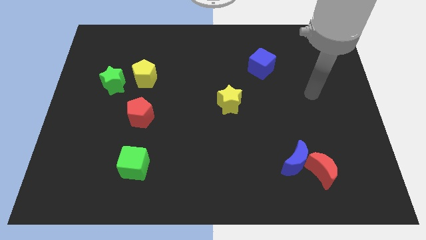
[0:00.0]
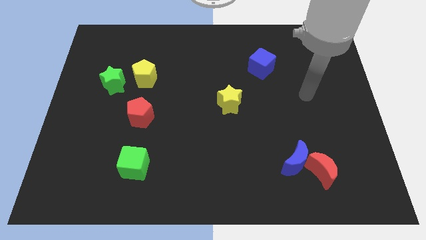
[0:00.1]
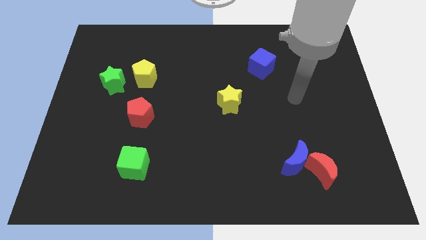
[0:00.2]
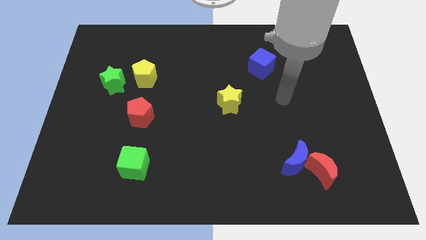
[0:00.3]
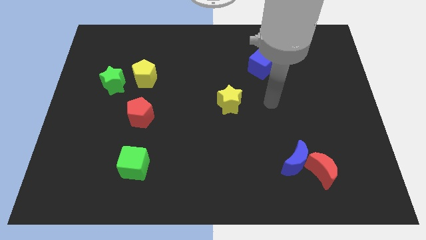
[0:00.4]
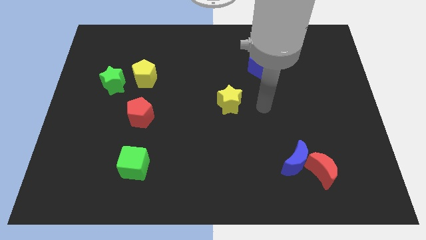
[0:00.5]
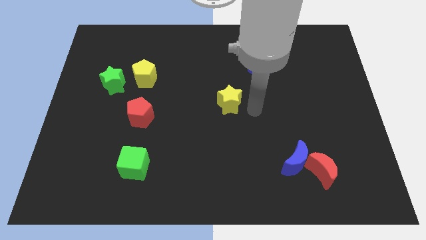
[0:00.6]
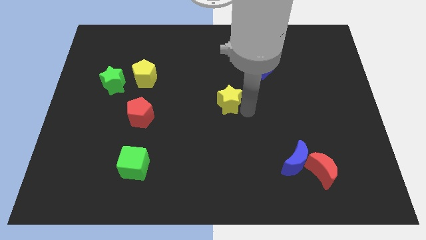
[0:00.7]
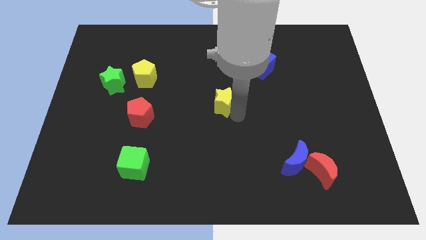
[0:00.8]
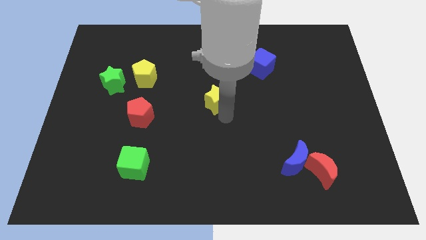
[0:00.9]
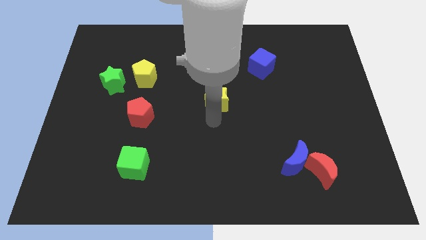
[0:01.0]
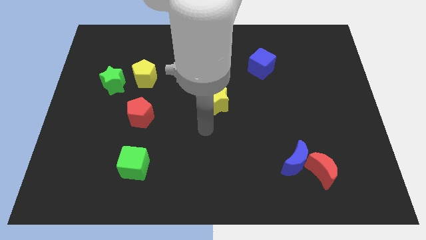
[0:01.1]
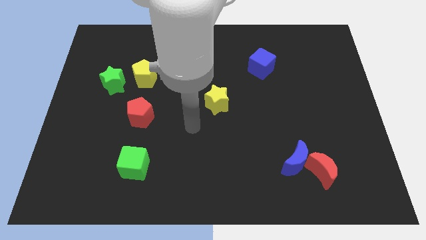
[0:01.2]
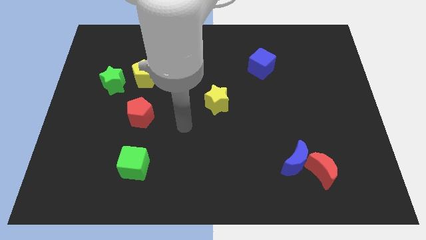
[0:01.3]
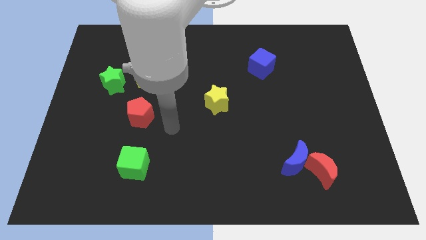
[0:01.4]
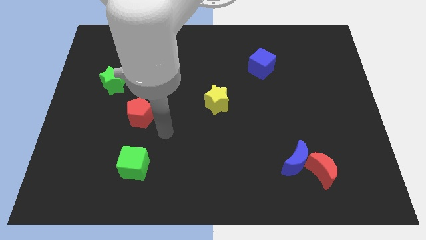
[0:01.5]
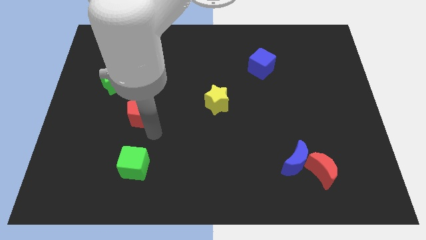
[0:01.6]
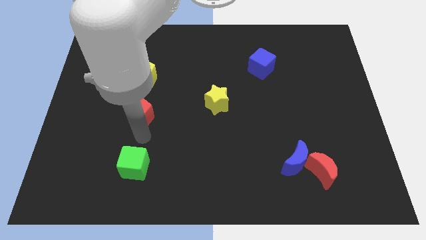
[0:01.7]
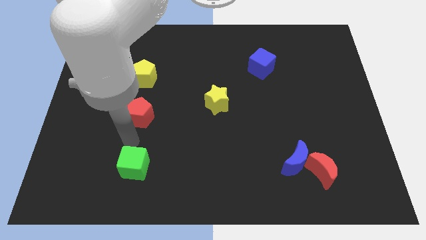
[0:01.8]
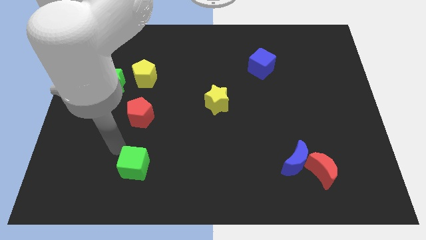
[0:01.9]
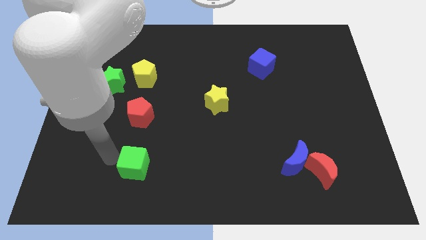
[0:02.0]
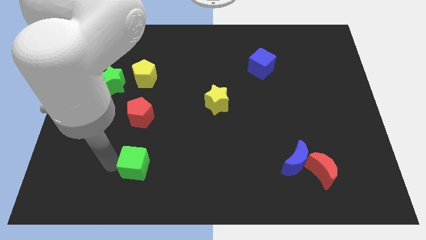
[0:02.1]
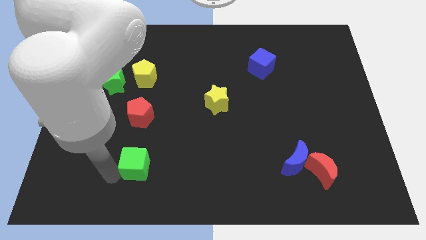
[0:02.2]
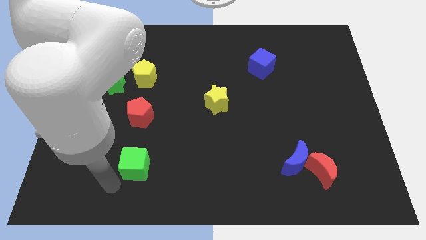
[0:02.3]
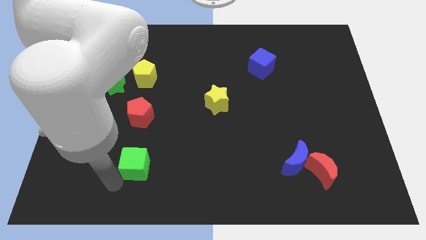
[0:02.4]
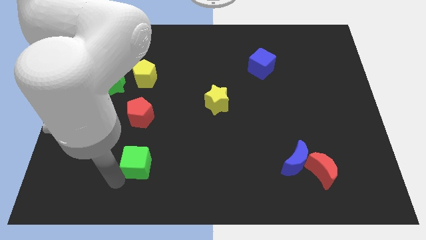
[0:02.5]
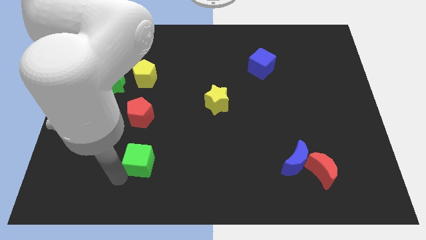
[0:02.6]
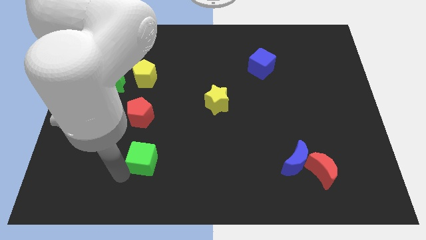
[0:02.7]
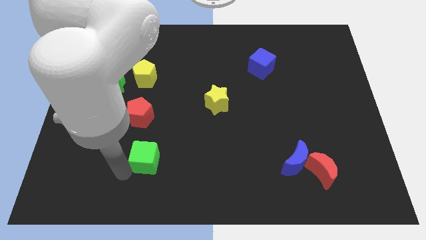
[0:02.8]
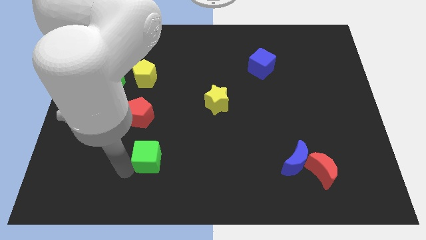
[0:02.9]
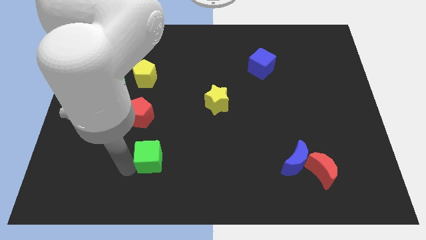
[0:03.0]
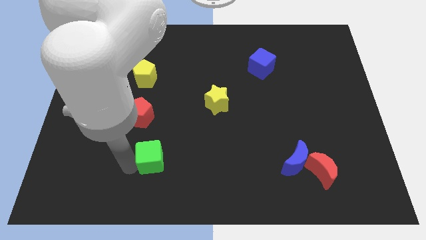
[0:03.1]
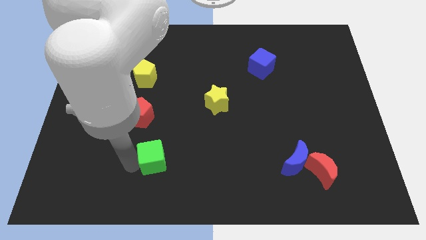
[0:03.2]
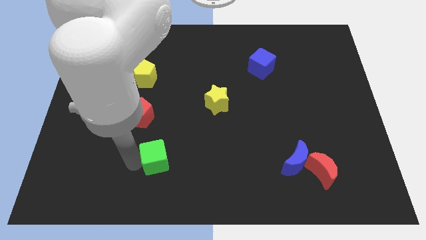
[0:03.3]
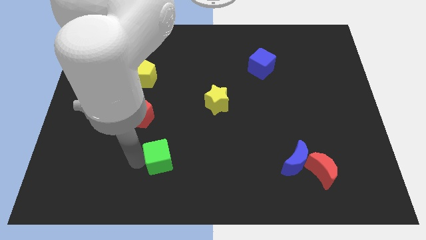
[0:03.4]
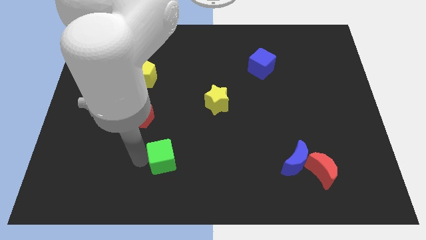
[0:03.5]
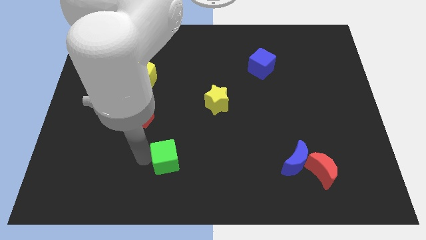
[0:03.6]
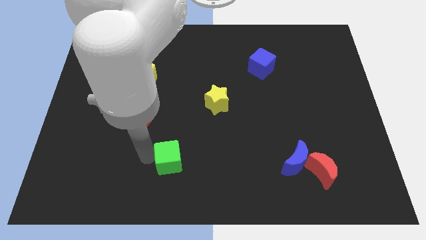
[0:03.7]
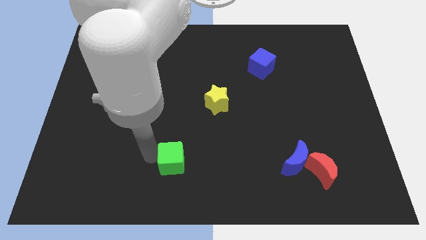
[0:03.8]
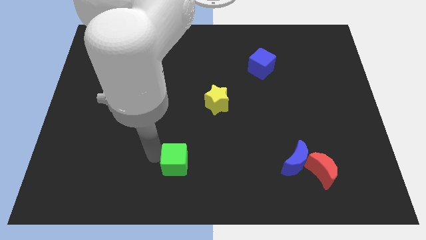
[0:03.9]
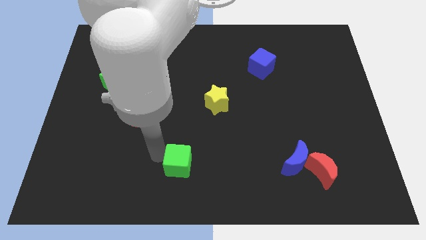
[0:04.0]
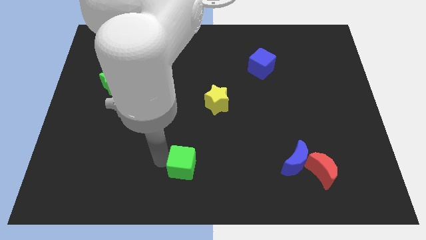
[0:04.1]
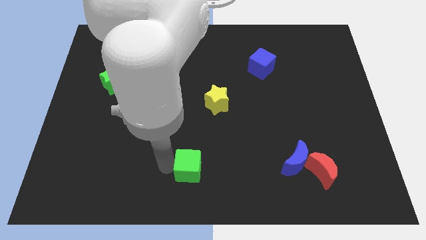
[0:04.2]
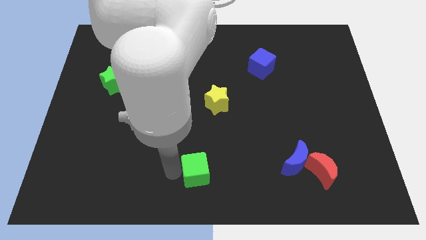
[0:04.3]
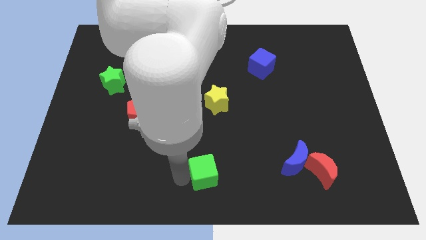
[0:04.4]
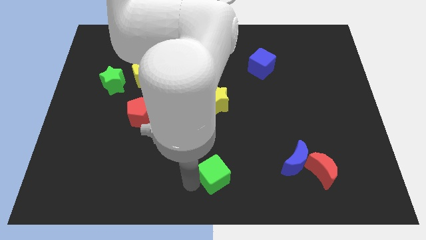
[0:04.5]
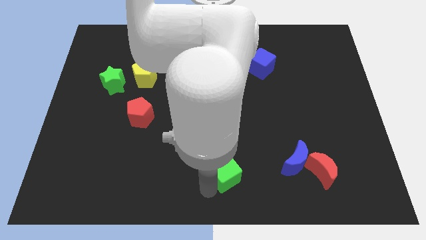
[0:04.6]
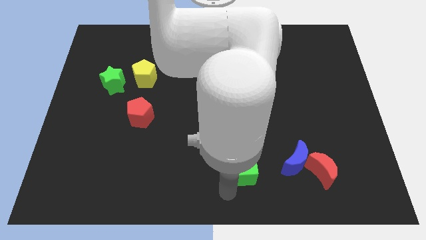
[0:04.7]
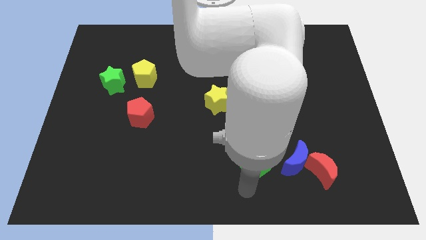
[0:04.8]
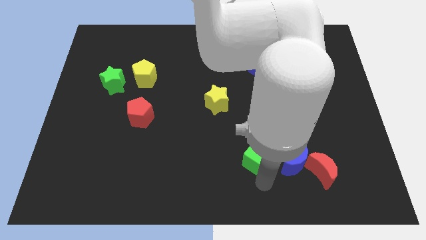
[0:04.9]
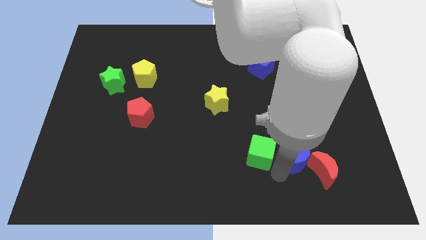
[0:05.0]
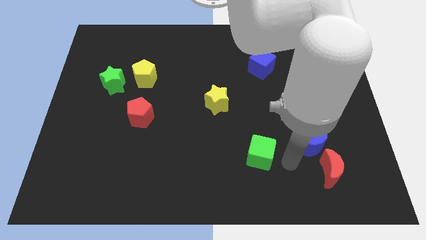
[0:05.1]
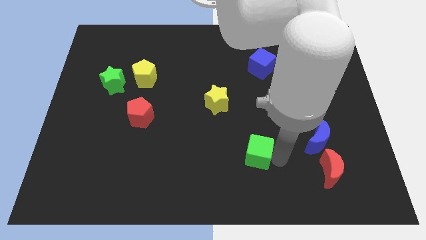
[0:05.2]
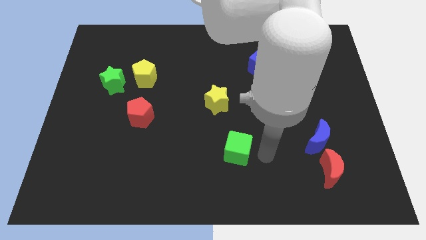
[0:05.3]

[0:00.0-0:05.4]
slightly move the green cube up and to the right

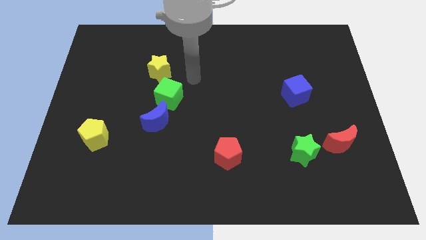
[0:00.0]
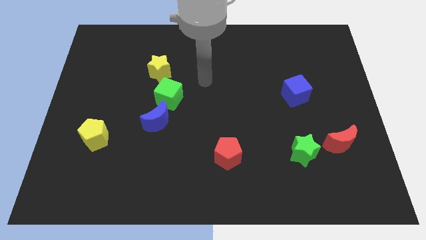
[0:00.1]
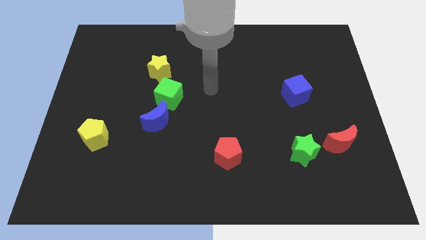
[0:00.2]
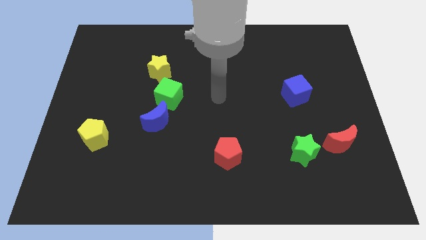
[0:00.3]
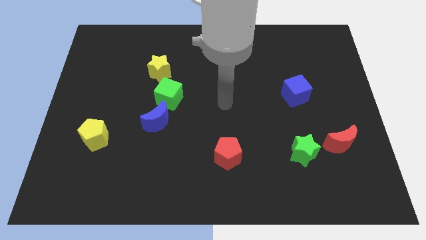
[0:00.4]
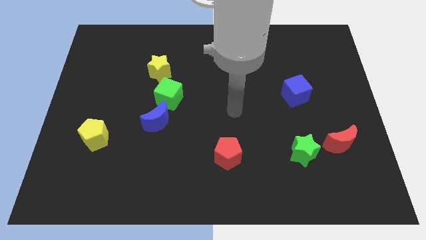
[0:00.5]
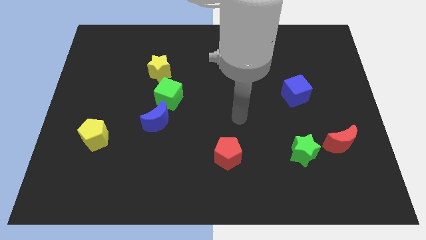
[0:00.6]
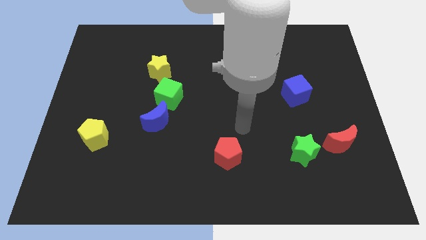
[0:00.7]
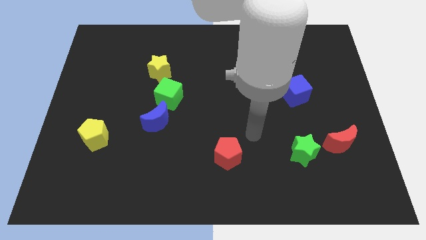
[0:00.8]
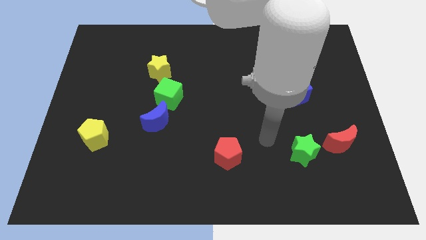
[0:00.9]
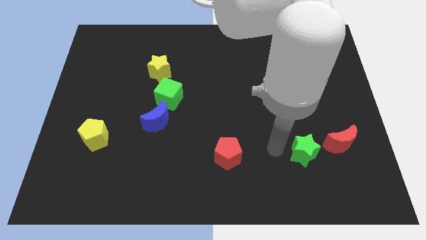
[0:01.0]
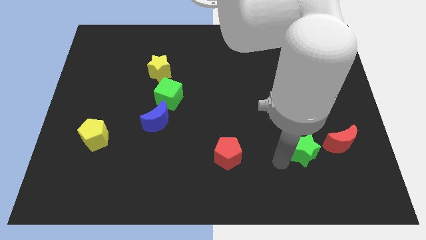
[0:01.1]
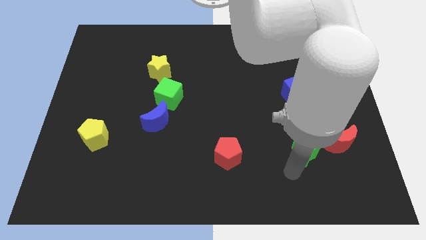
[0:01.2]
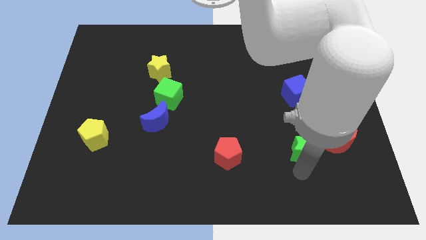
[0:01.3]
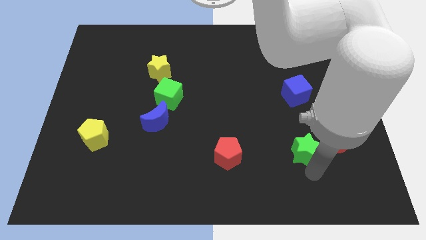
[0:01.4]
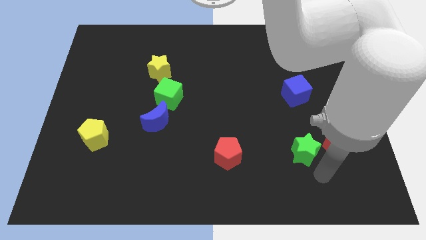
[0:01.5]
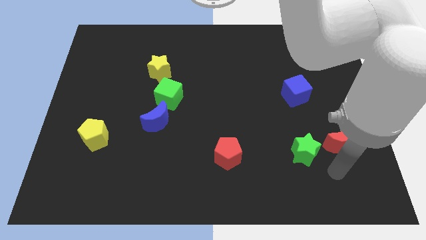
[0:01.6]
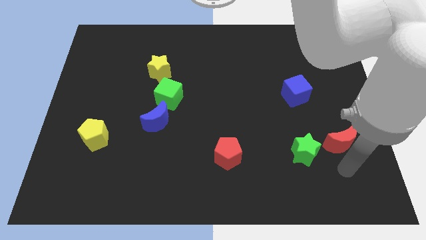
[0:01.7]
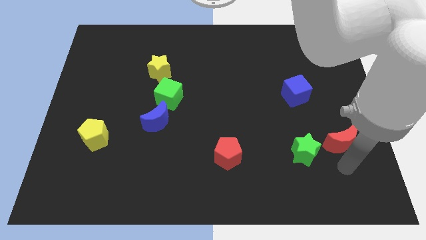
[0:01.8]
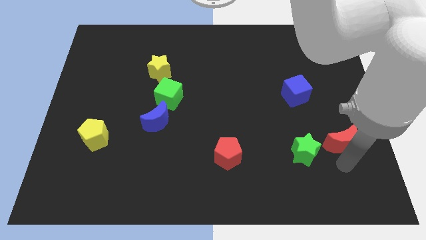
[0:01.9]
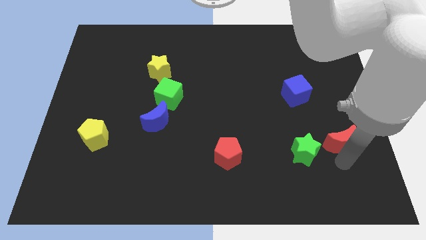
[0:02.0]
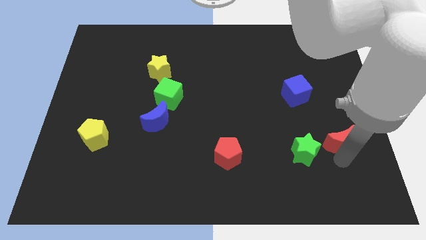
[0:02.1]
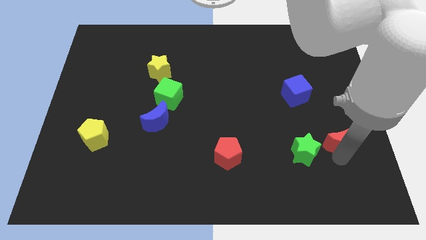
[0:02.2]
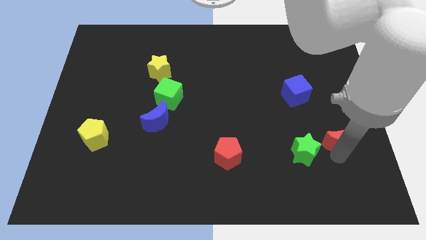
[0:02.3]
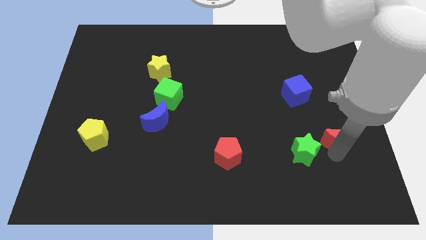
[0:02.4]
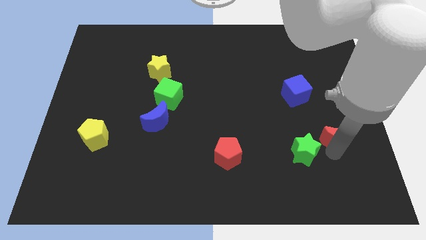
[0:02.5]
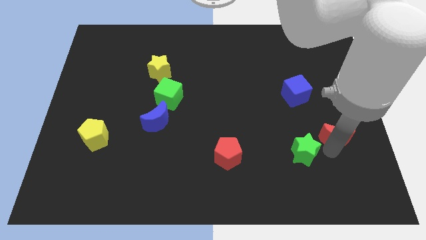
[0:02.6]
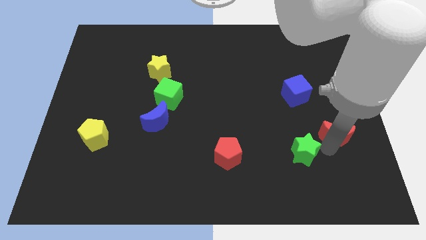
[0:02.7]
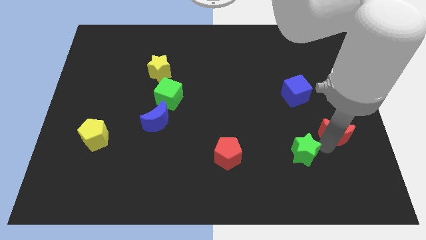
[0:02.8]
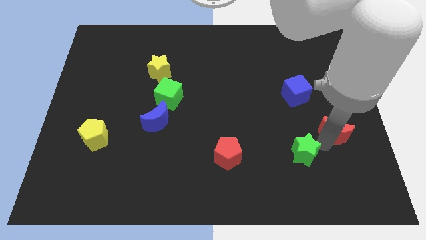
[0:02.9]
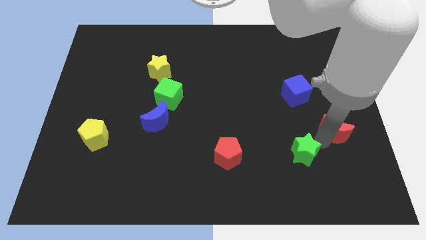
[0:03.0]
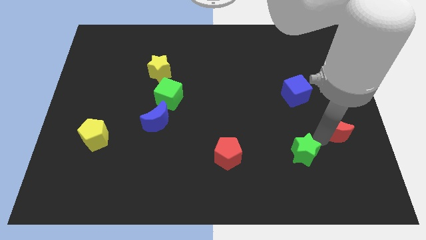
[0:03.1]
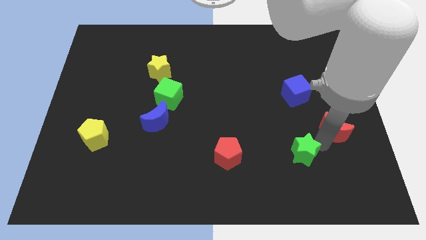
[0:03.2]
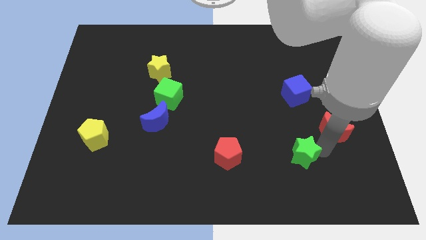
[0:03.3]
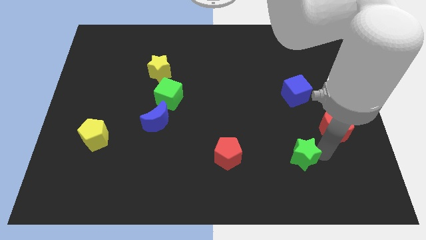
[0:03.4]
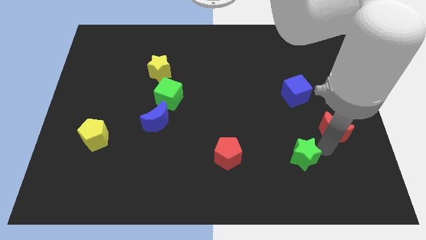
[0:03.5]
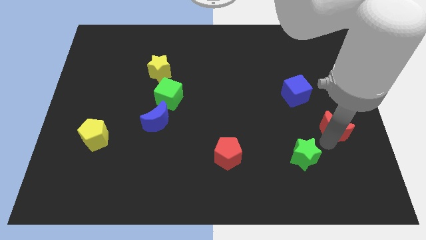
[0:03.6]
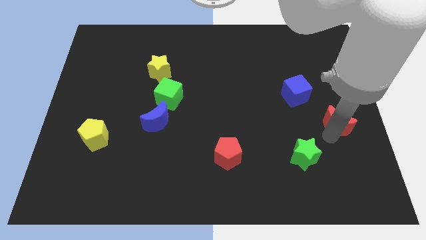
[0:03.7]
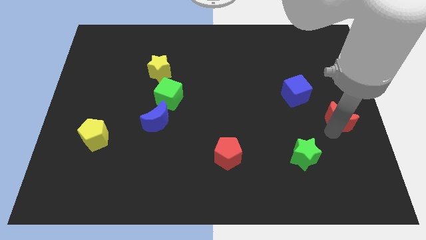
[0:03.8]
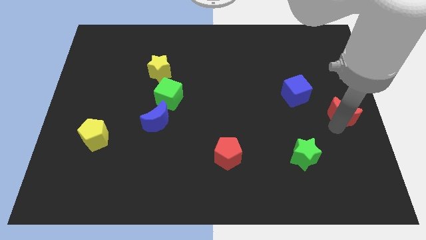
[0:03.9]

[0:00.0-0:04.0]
slightly move the red moon upwards
